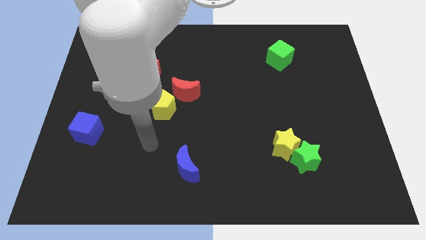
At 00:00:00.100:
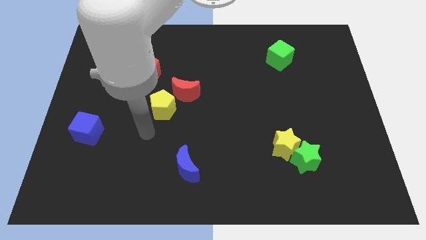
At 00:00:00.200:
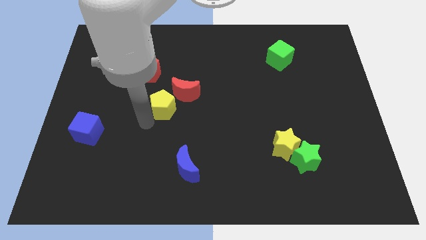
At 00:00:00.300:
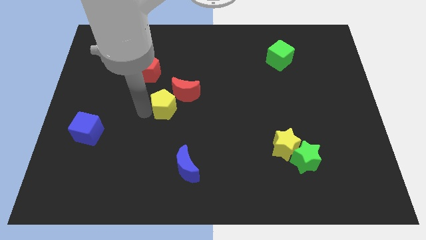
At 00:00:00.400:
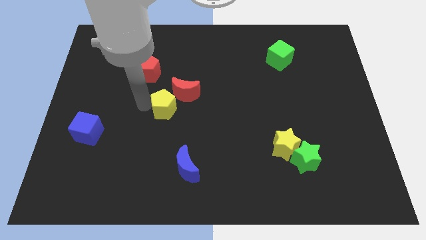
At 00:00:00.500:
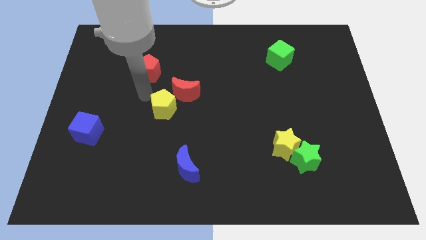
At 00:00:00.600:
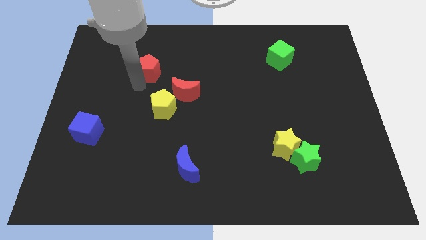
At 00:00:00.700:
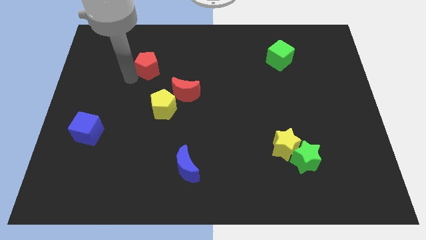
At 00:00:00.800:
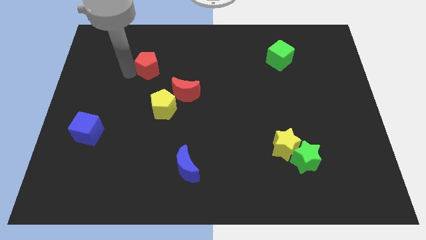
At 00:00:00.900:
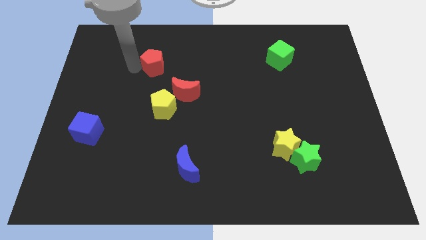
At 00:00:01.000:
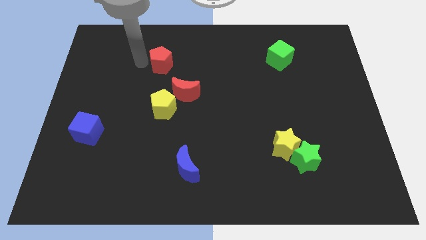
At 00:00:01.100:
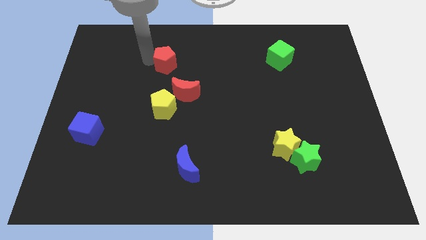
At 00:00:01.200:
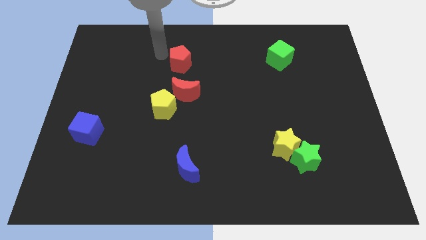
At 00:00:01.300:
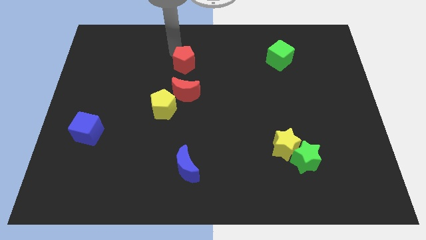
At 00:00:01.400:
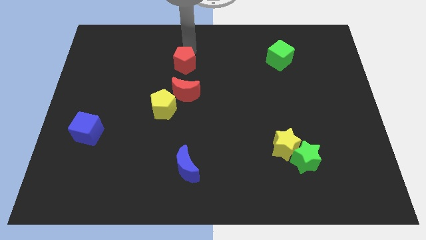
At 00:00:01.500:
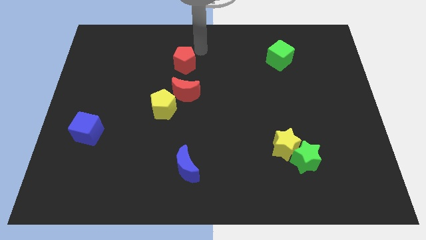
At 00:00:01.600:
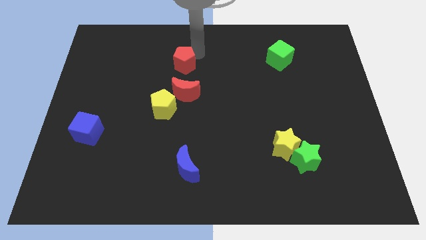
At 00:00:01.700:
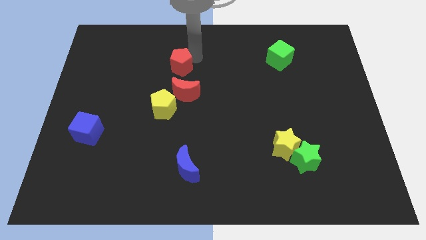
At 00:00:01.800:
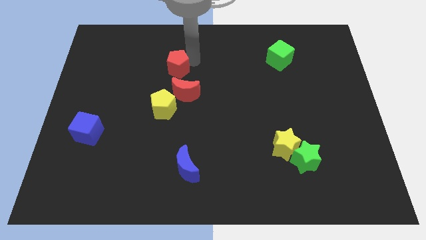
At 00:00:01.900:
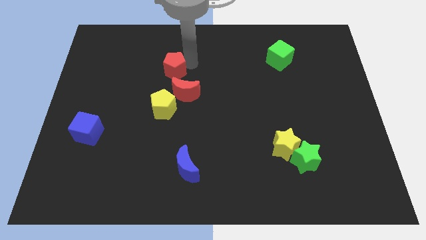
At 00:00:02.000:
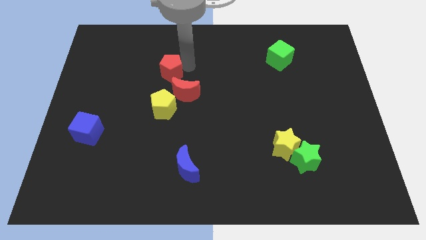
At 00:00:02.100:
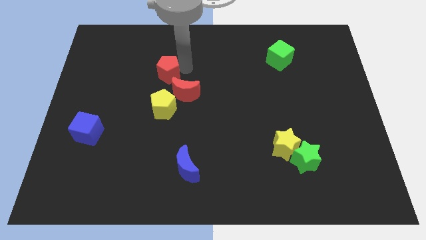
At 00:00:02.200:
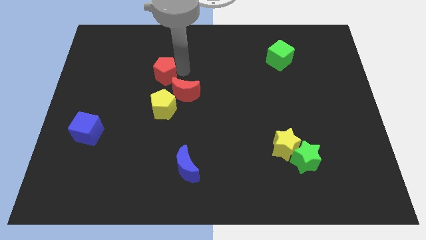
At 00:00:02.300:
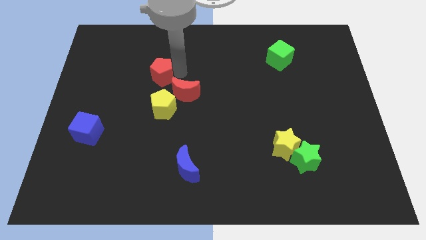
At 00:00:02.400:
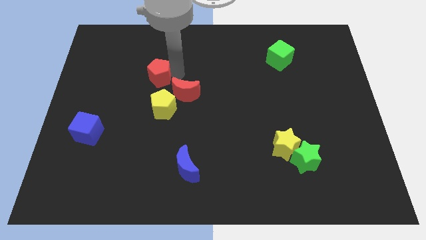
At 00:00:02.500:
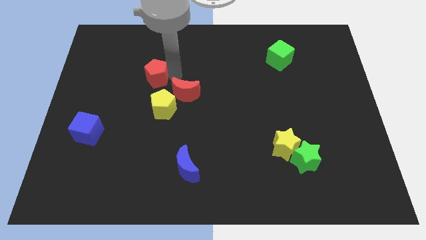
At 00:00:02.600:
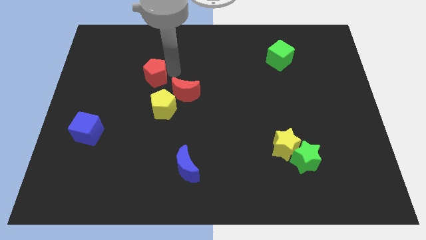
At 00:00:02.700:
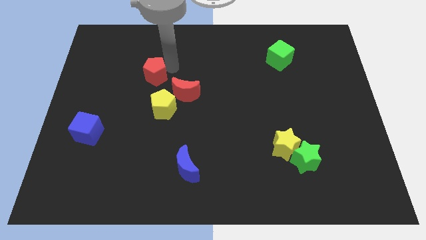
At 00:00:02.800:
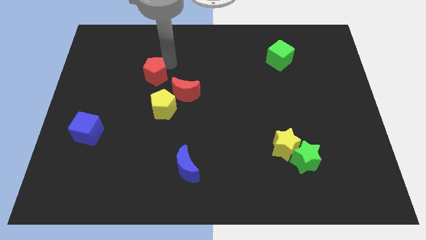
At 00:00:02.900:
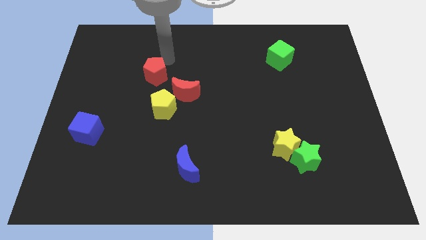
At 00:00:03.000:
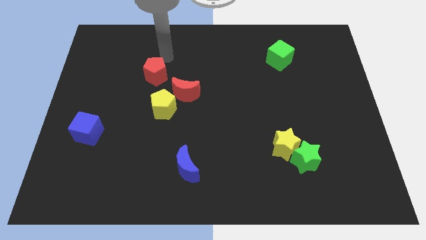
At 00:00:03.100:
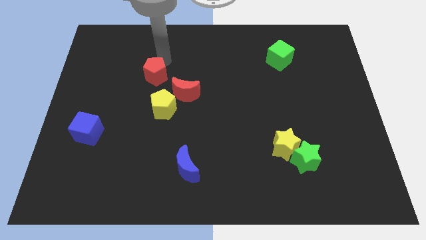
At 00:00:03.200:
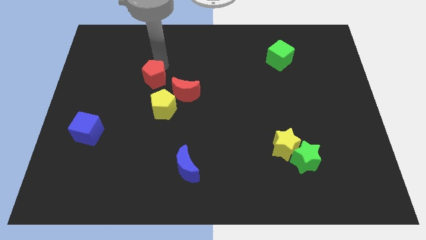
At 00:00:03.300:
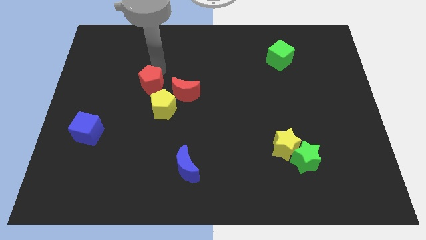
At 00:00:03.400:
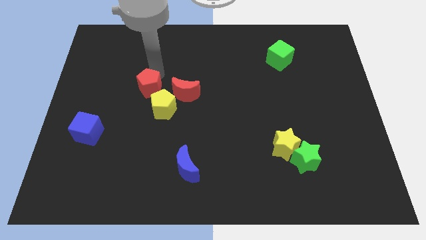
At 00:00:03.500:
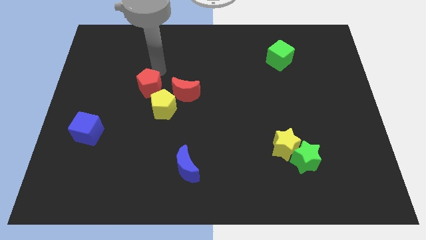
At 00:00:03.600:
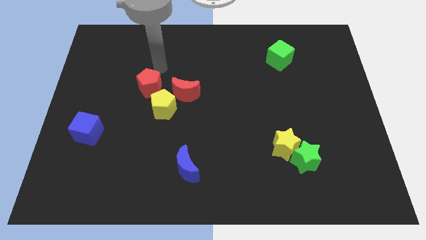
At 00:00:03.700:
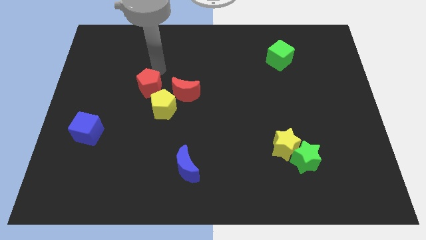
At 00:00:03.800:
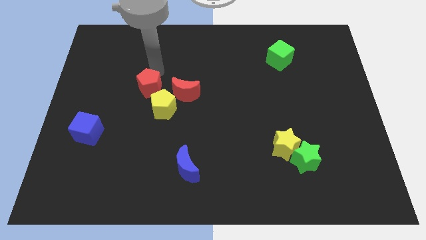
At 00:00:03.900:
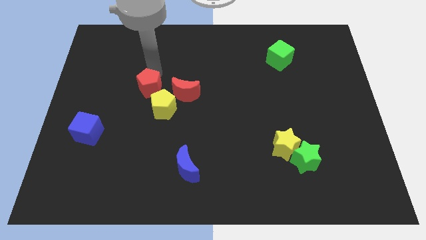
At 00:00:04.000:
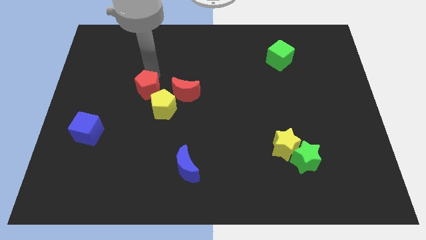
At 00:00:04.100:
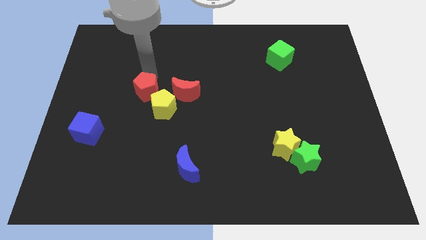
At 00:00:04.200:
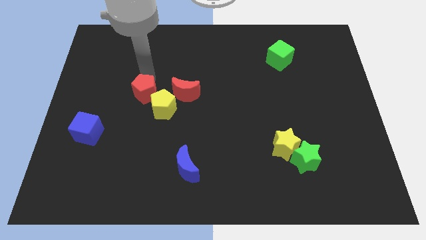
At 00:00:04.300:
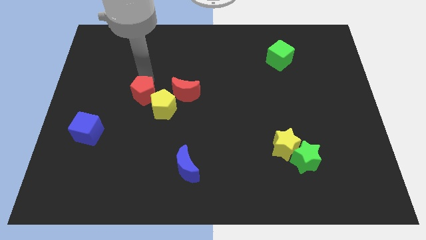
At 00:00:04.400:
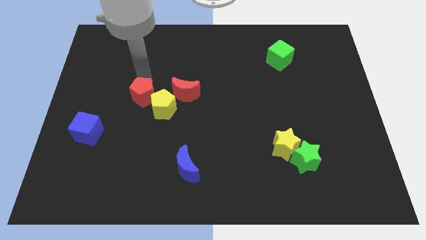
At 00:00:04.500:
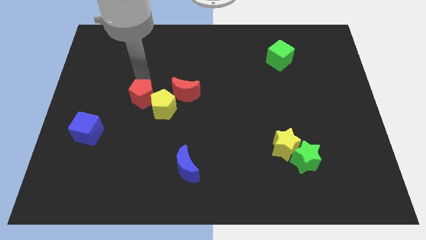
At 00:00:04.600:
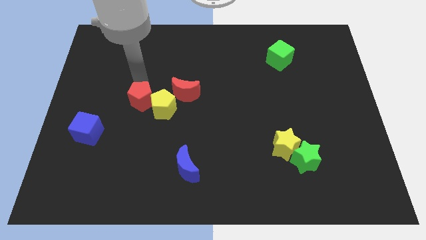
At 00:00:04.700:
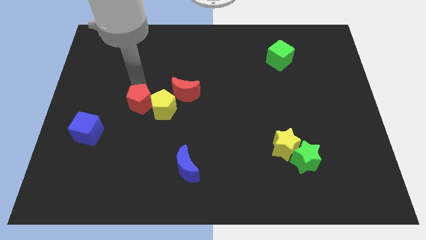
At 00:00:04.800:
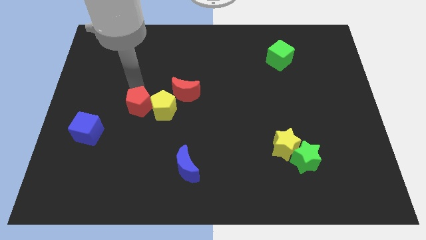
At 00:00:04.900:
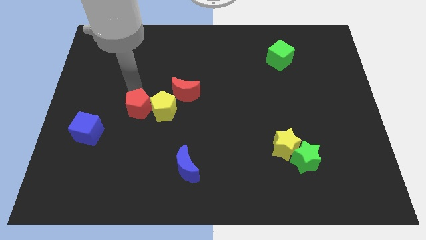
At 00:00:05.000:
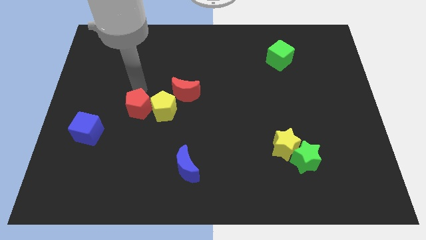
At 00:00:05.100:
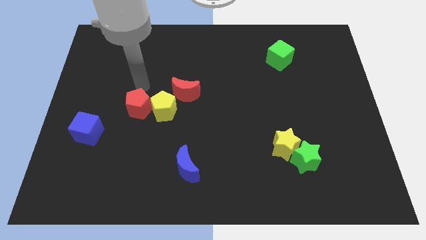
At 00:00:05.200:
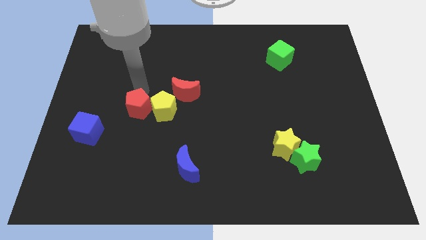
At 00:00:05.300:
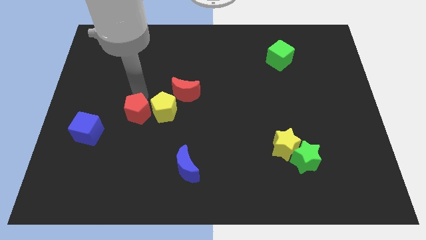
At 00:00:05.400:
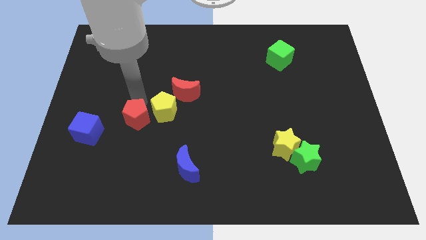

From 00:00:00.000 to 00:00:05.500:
push the red pentagon to the right side of the blue cube
